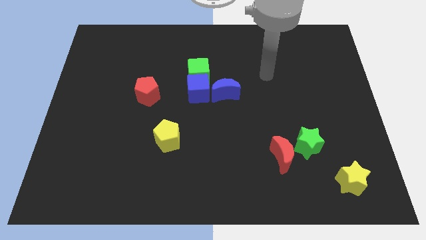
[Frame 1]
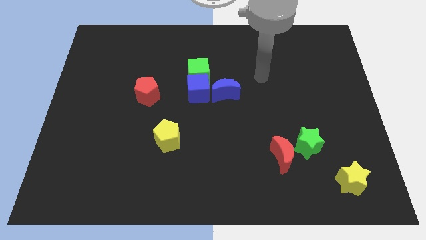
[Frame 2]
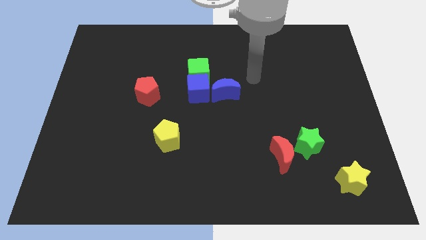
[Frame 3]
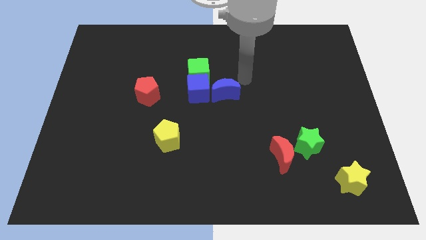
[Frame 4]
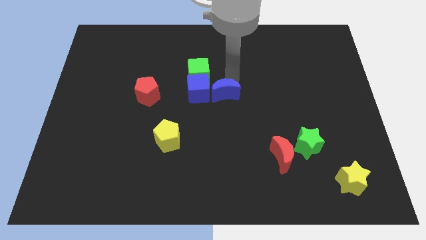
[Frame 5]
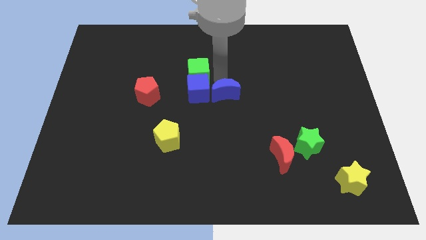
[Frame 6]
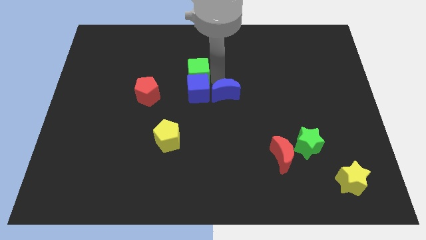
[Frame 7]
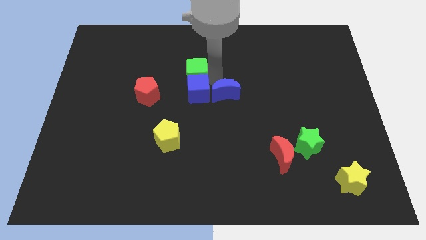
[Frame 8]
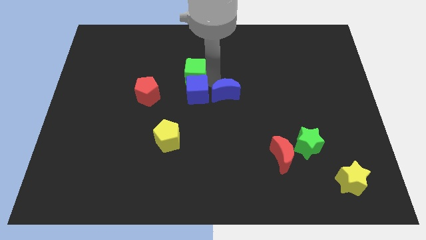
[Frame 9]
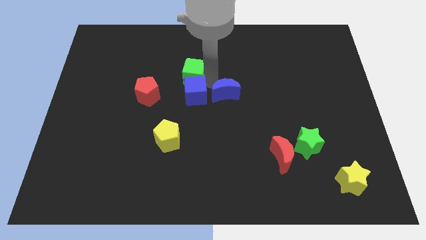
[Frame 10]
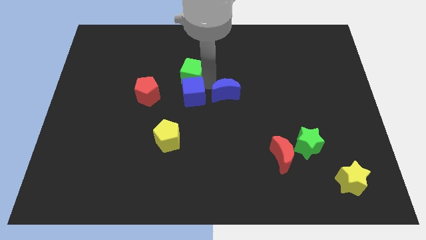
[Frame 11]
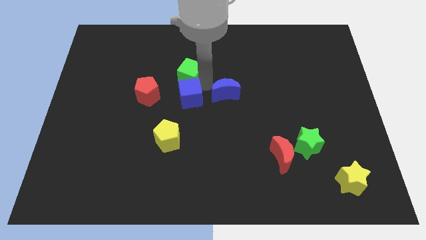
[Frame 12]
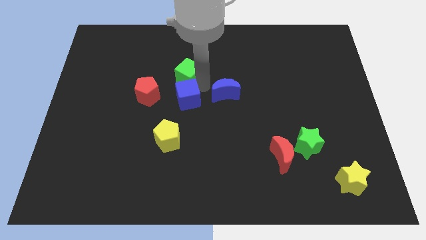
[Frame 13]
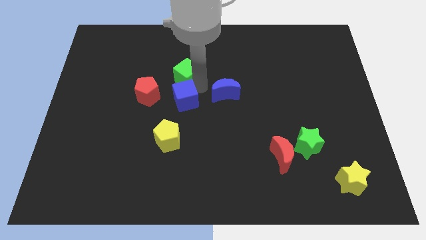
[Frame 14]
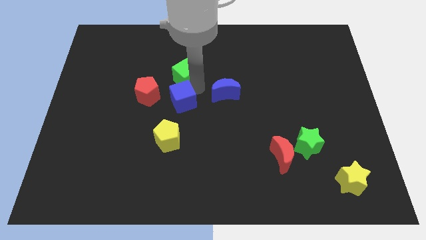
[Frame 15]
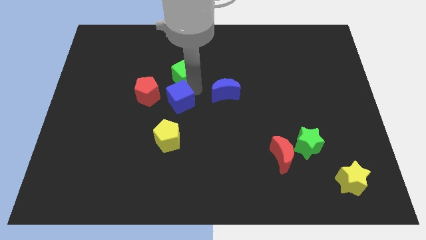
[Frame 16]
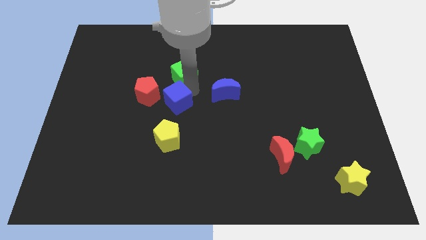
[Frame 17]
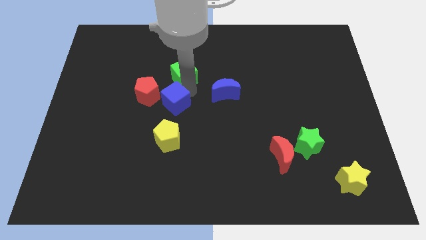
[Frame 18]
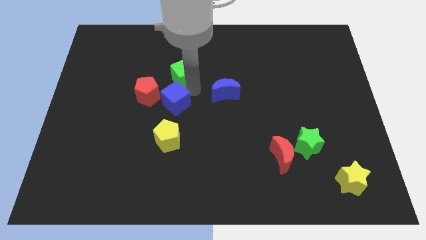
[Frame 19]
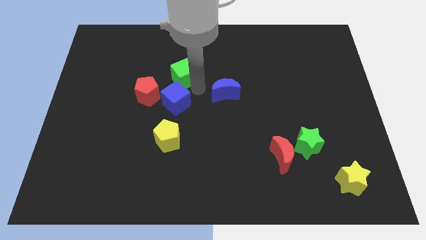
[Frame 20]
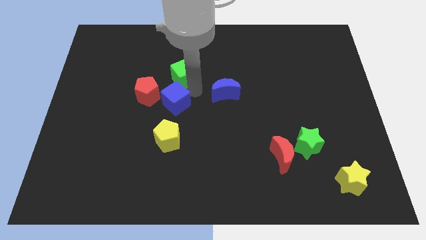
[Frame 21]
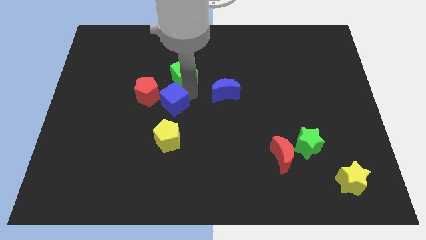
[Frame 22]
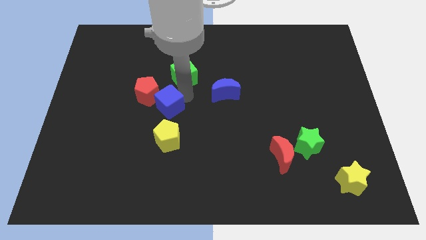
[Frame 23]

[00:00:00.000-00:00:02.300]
pull the blue cube apart from the green cube and blue moon

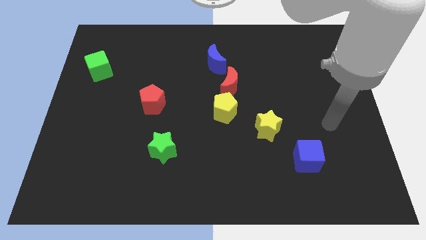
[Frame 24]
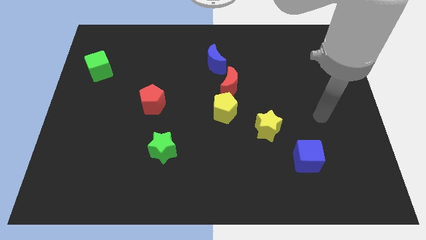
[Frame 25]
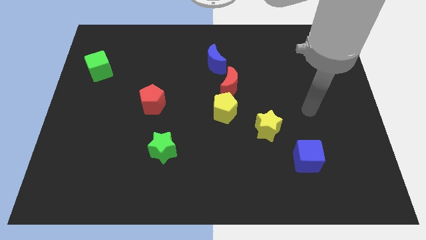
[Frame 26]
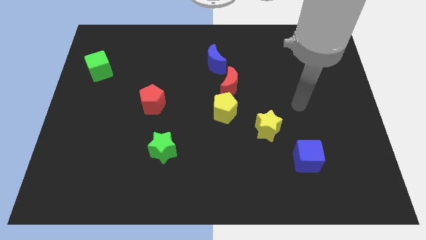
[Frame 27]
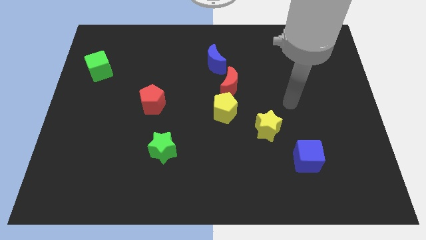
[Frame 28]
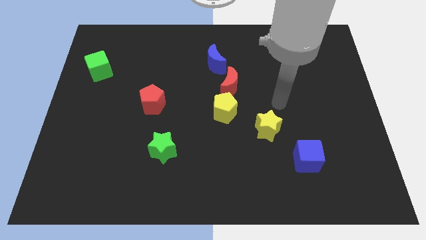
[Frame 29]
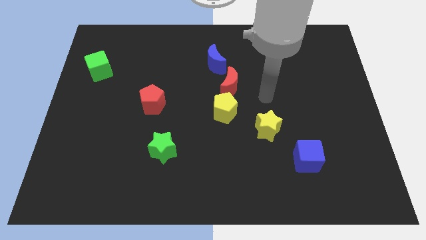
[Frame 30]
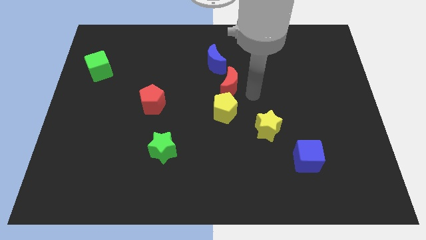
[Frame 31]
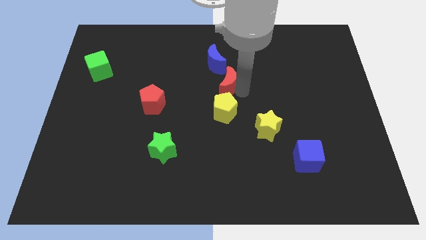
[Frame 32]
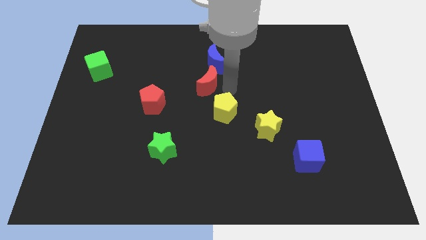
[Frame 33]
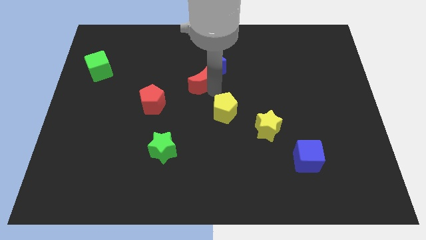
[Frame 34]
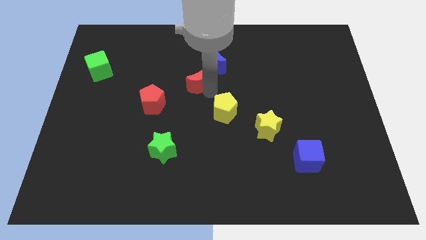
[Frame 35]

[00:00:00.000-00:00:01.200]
move the yellow pentagon away from the red moon

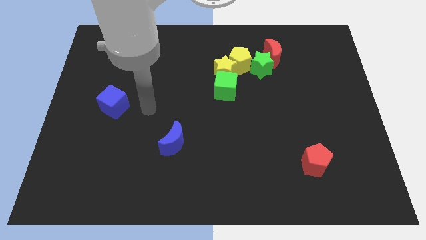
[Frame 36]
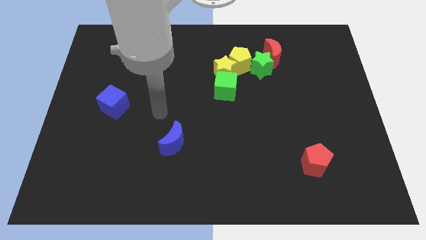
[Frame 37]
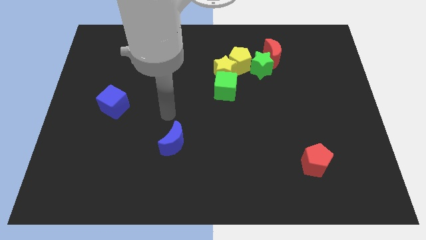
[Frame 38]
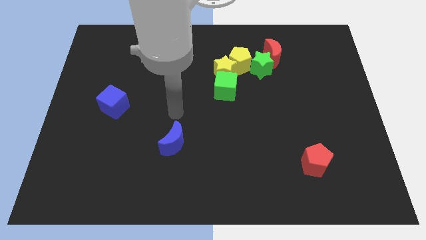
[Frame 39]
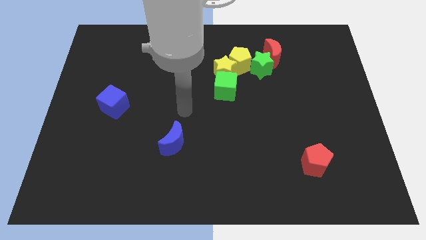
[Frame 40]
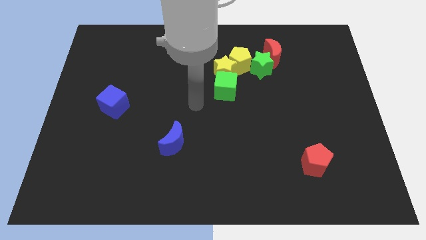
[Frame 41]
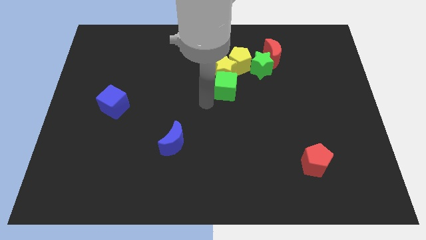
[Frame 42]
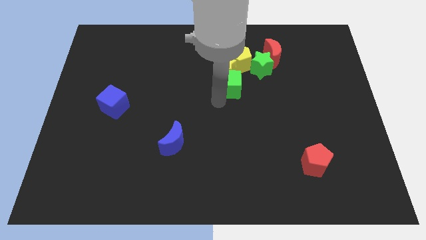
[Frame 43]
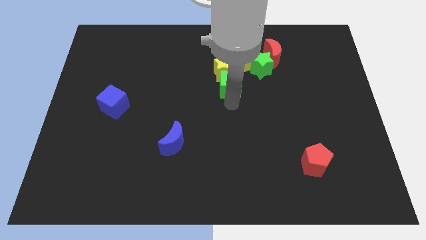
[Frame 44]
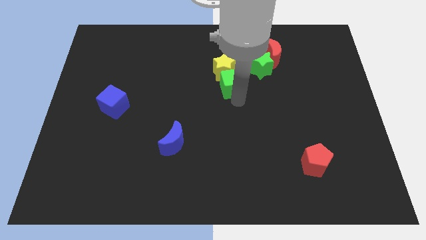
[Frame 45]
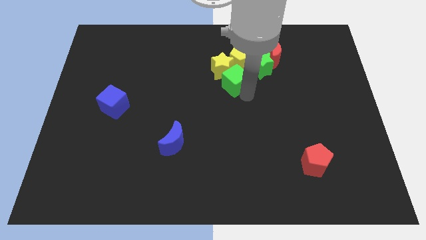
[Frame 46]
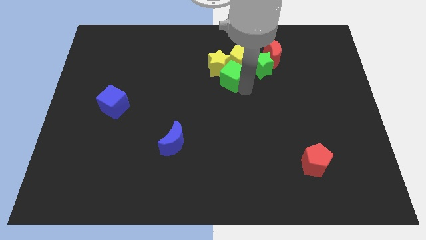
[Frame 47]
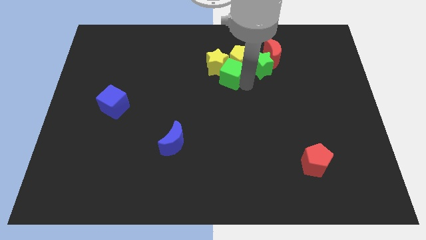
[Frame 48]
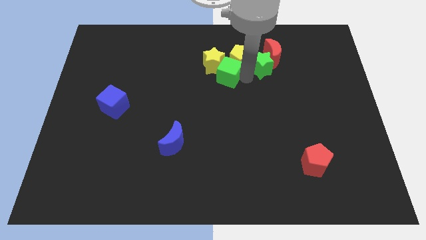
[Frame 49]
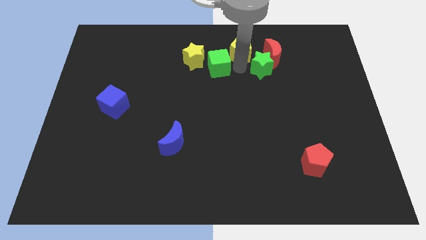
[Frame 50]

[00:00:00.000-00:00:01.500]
move the yellow star away from the yellow pentagon, green cube, and green star

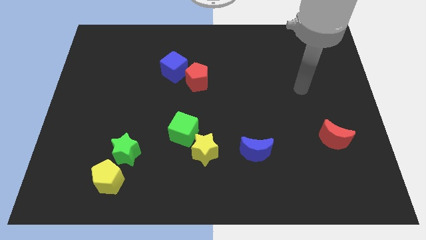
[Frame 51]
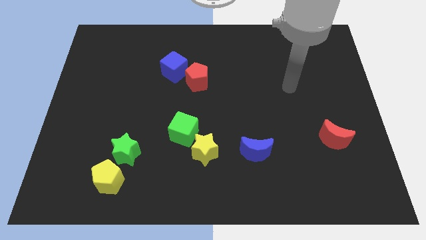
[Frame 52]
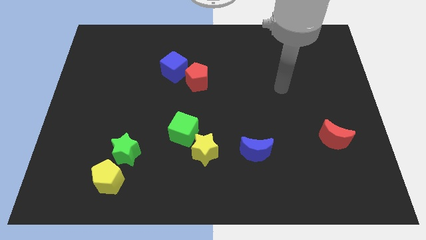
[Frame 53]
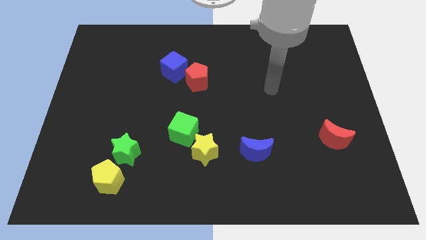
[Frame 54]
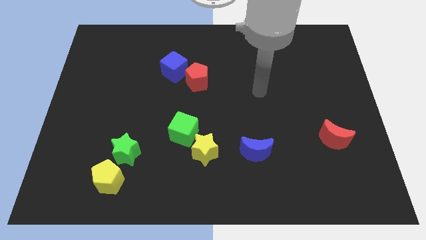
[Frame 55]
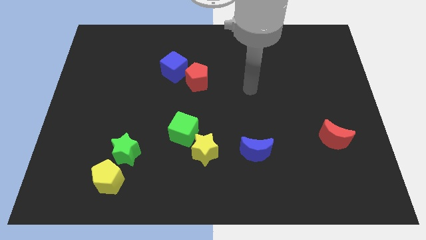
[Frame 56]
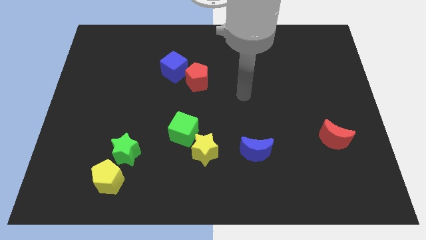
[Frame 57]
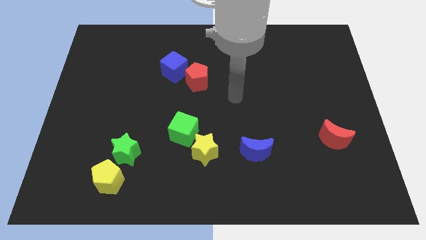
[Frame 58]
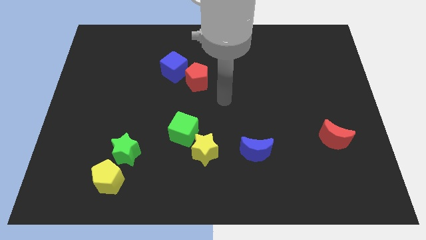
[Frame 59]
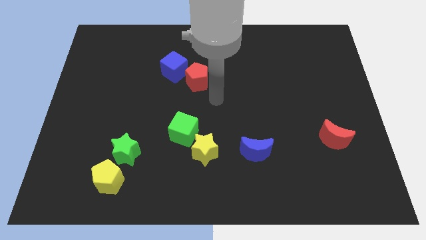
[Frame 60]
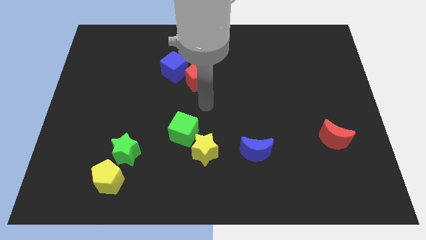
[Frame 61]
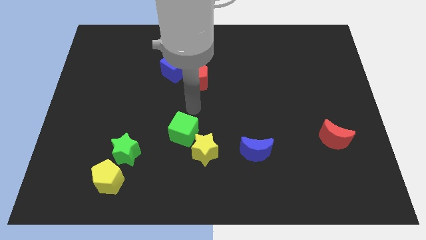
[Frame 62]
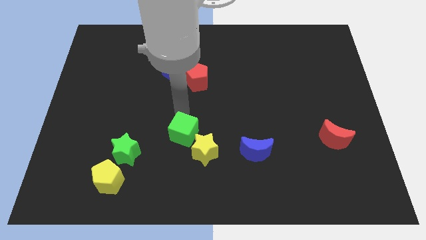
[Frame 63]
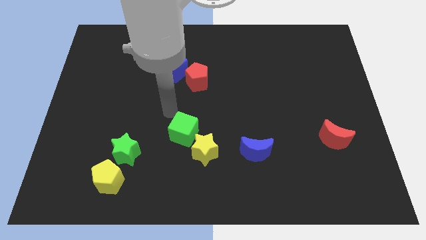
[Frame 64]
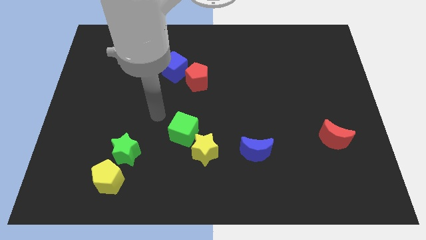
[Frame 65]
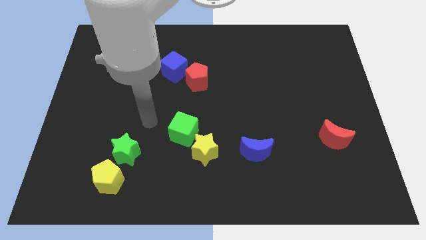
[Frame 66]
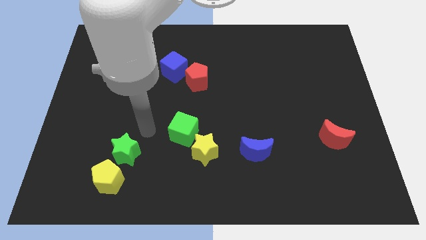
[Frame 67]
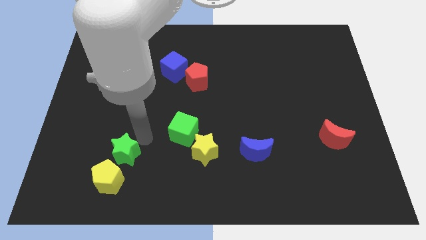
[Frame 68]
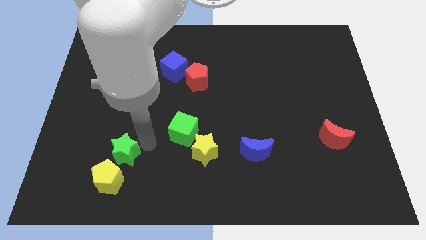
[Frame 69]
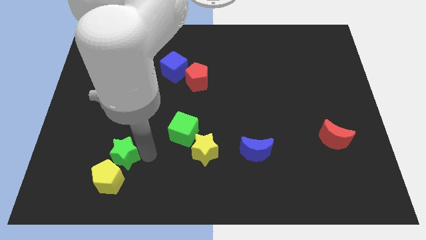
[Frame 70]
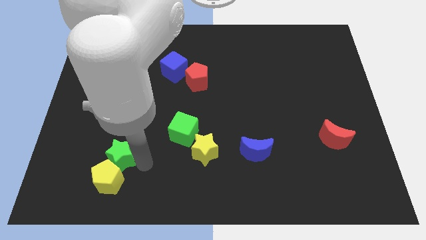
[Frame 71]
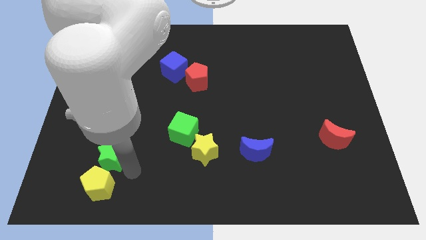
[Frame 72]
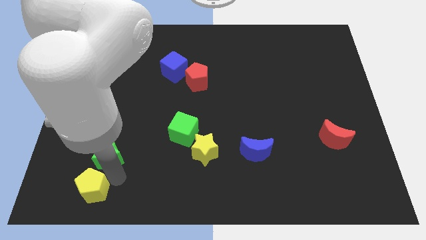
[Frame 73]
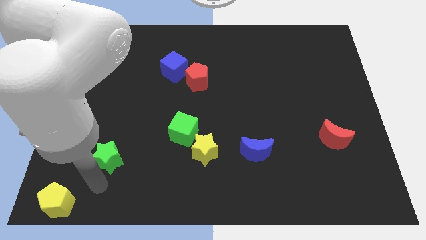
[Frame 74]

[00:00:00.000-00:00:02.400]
pull the green star apart from the yellow pentagon

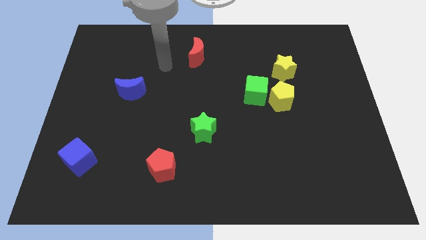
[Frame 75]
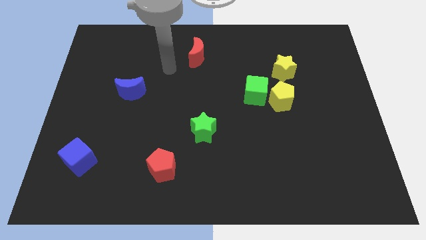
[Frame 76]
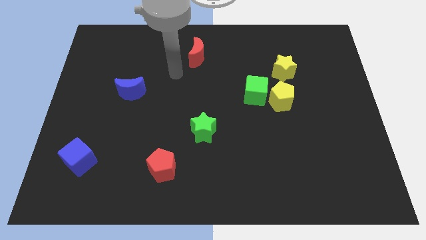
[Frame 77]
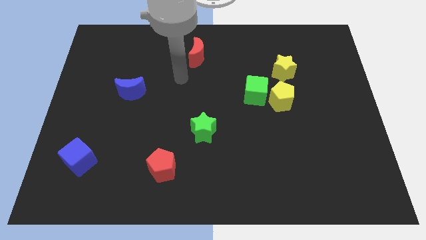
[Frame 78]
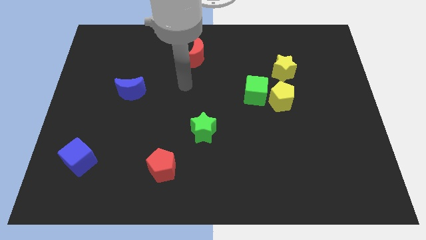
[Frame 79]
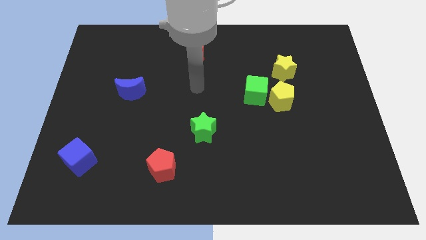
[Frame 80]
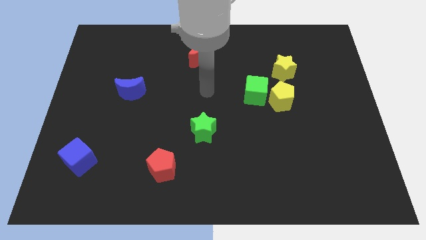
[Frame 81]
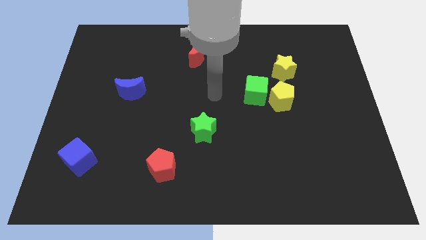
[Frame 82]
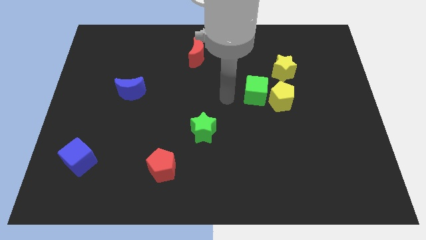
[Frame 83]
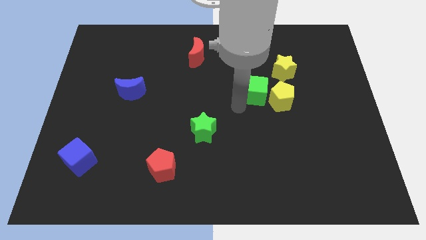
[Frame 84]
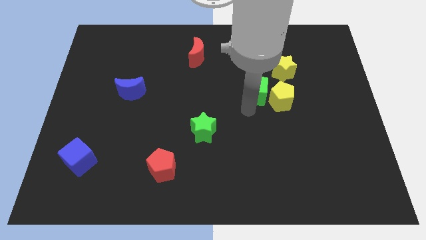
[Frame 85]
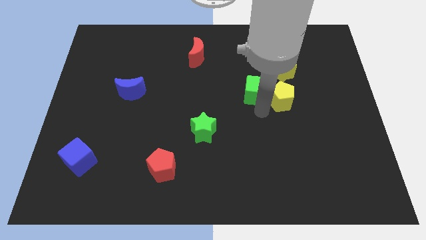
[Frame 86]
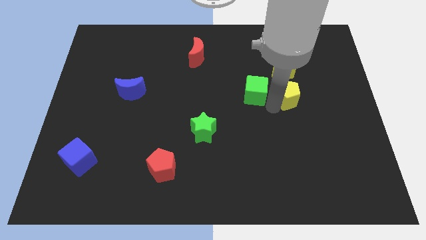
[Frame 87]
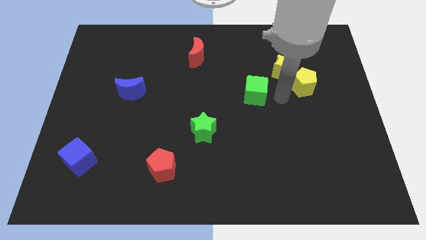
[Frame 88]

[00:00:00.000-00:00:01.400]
move the green cube away from the yellow pentagon

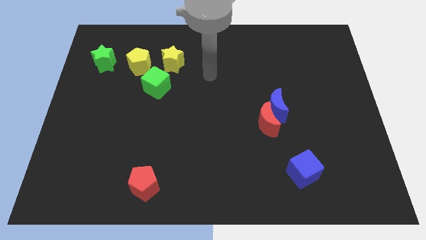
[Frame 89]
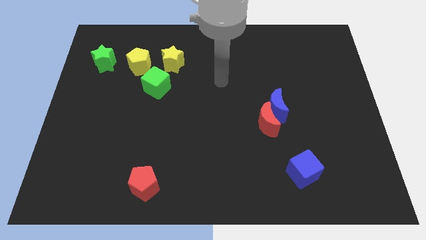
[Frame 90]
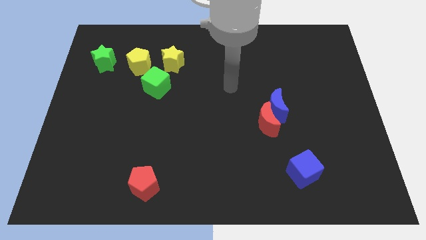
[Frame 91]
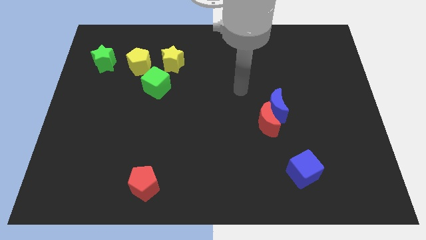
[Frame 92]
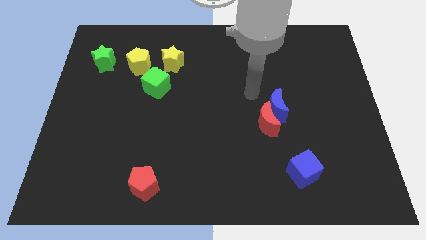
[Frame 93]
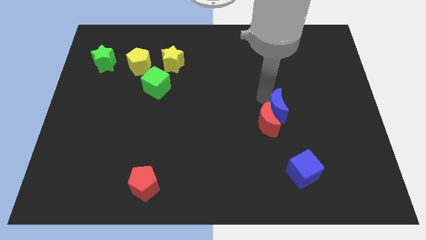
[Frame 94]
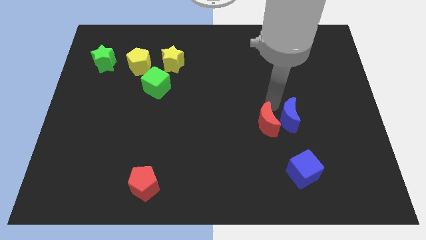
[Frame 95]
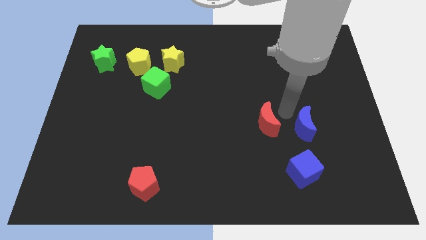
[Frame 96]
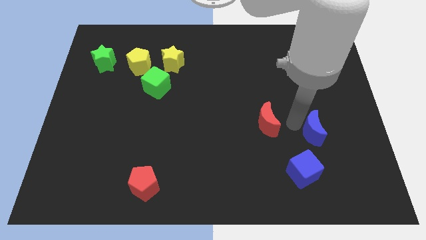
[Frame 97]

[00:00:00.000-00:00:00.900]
separate the red moon from the blue moon
